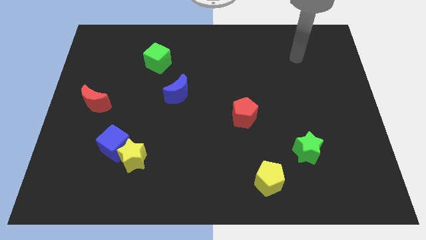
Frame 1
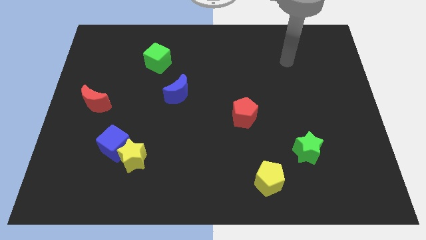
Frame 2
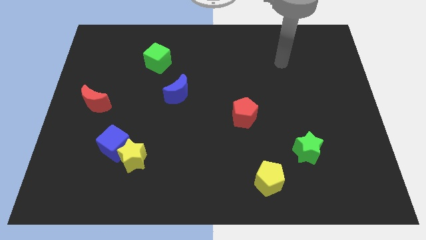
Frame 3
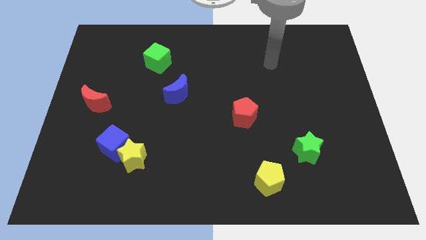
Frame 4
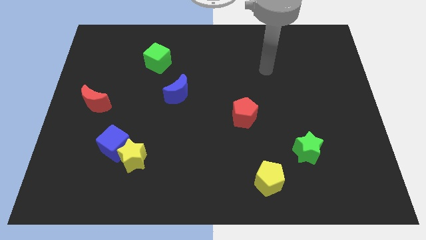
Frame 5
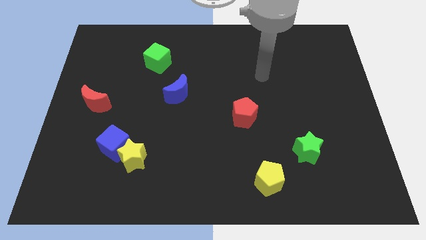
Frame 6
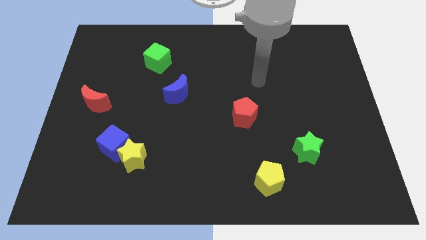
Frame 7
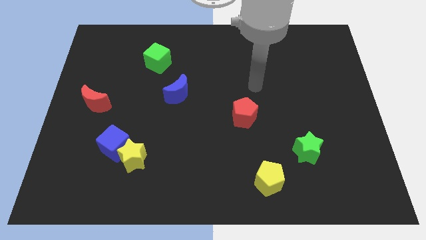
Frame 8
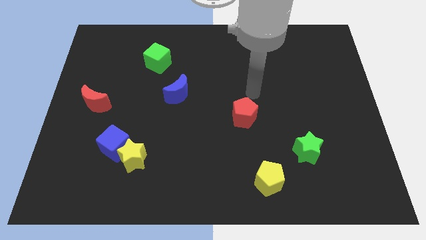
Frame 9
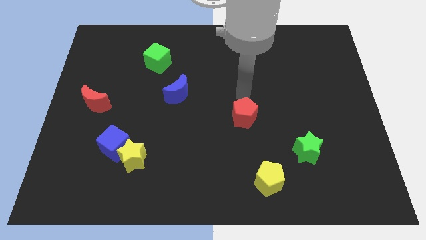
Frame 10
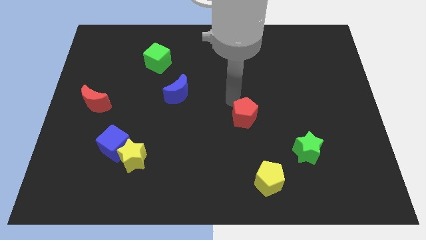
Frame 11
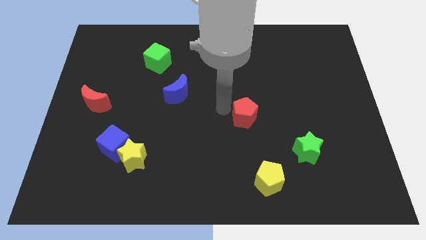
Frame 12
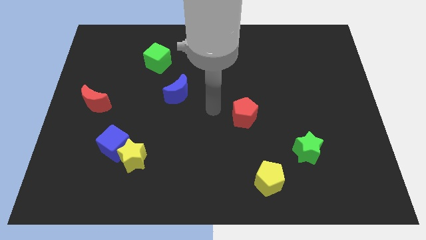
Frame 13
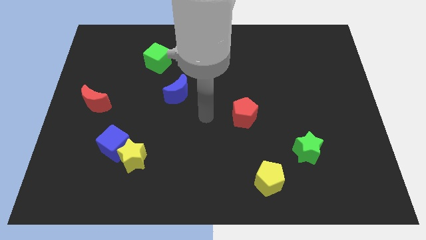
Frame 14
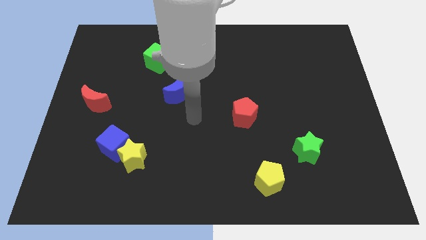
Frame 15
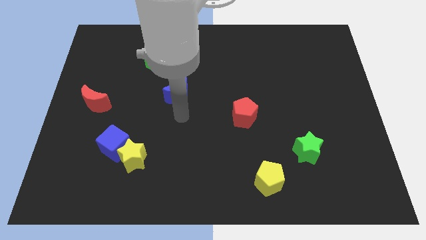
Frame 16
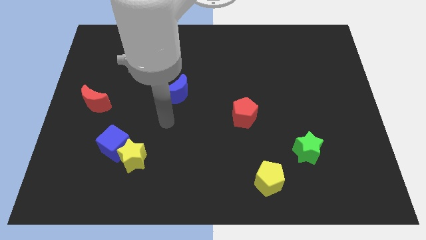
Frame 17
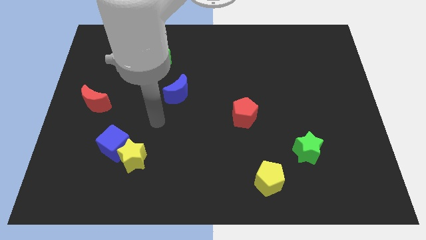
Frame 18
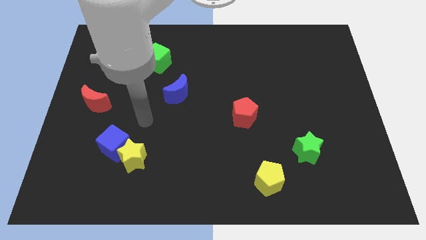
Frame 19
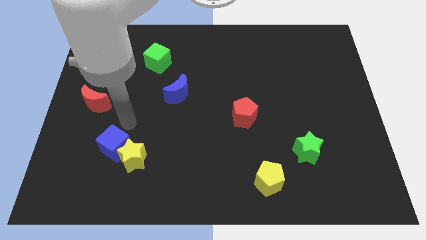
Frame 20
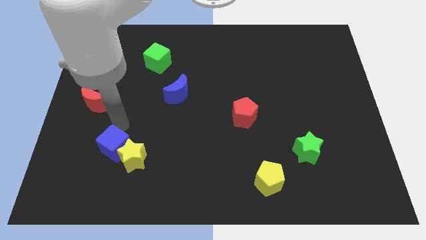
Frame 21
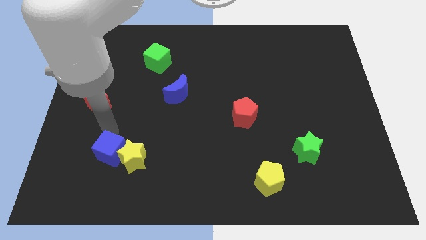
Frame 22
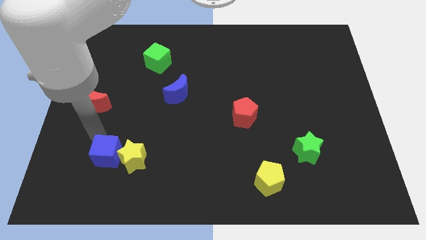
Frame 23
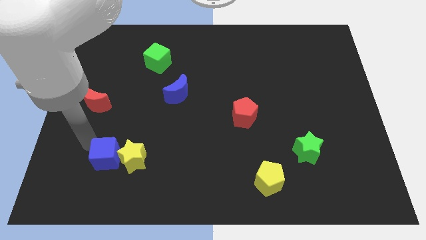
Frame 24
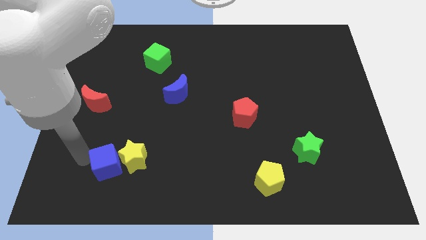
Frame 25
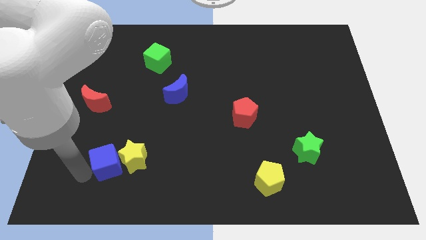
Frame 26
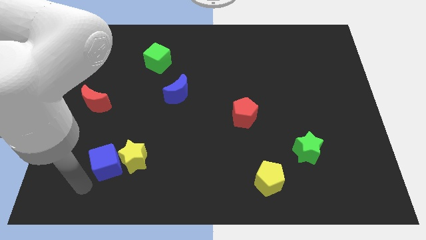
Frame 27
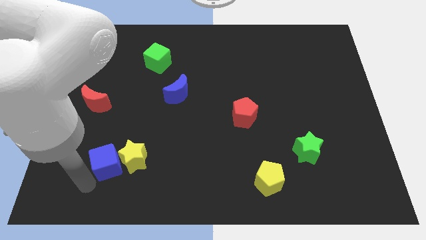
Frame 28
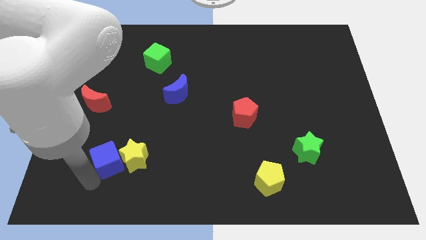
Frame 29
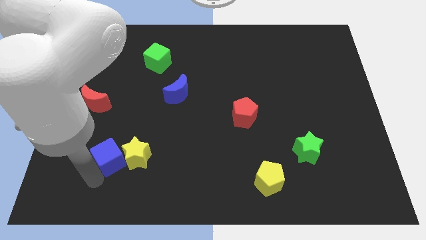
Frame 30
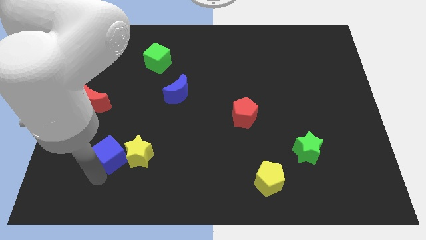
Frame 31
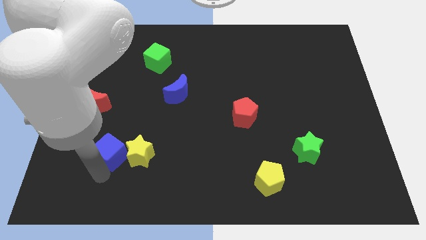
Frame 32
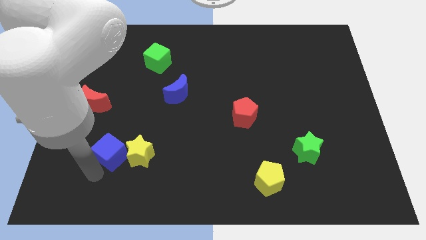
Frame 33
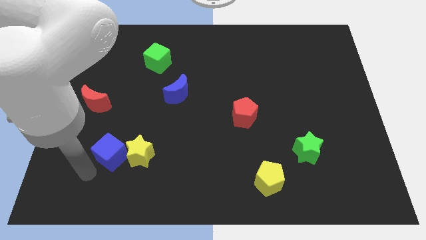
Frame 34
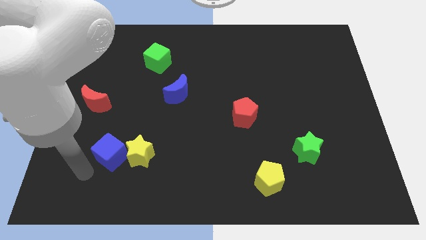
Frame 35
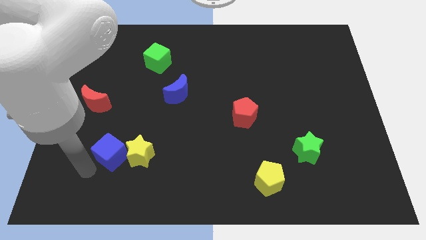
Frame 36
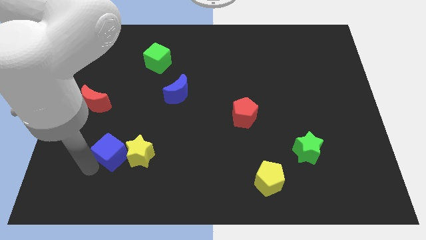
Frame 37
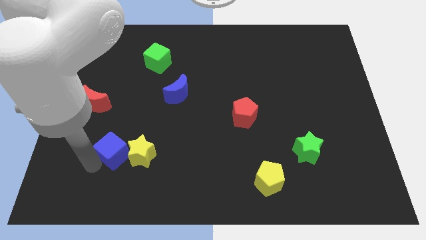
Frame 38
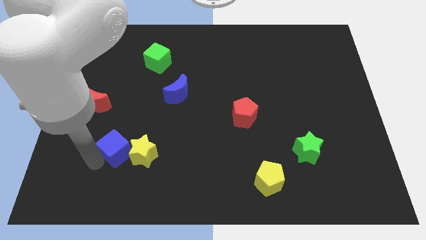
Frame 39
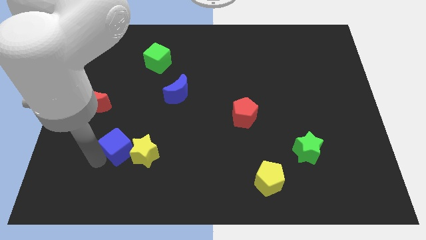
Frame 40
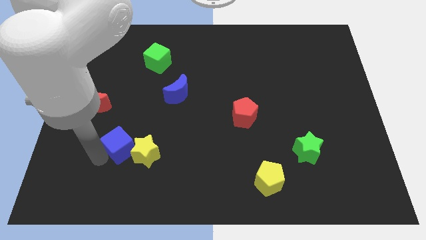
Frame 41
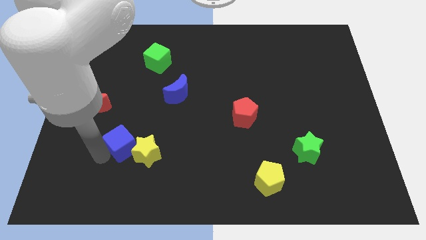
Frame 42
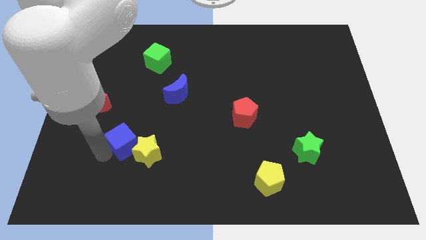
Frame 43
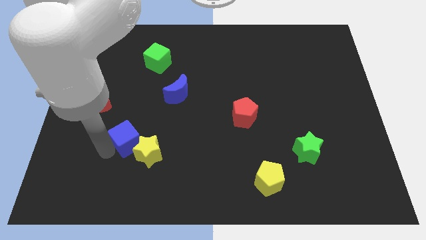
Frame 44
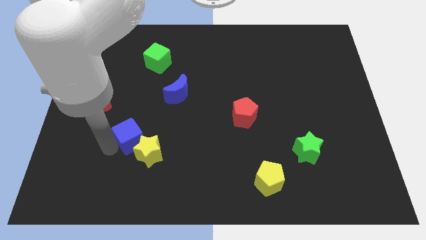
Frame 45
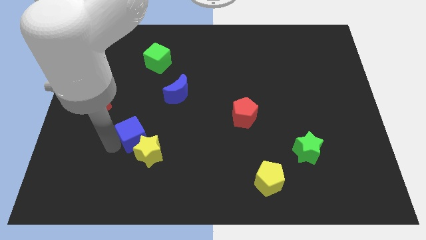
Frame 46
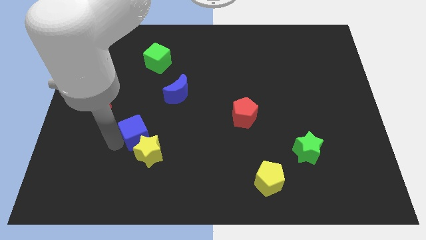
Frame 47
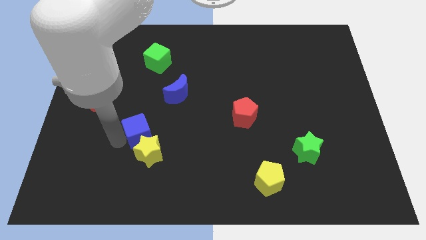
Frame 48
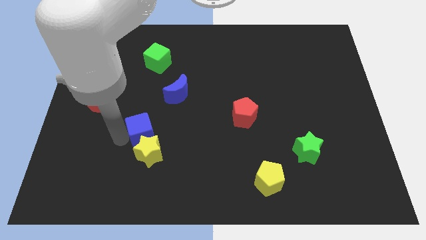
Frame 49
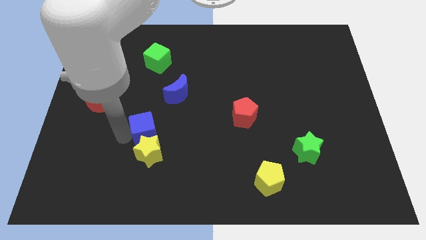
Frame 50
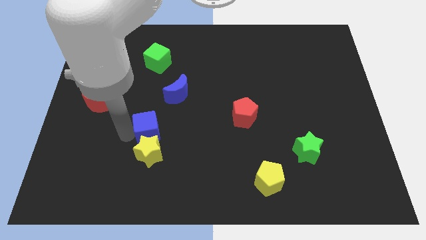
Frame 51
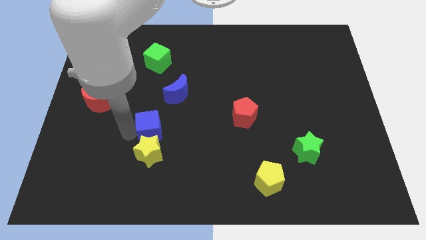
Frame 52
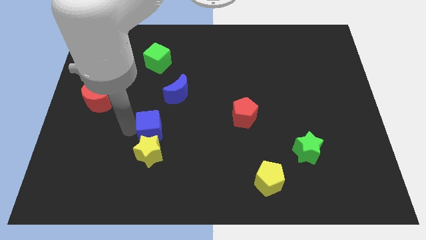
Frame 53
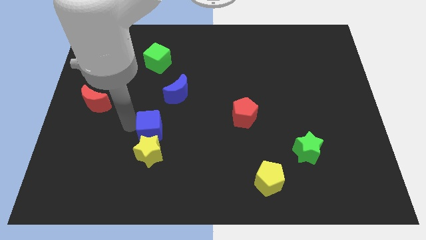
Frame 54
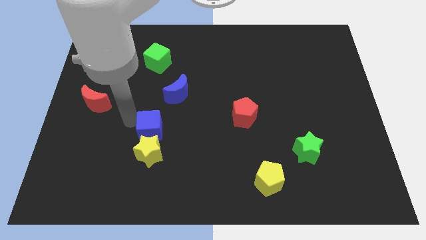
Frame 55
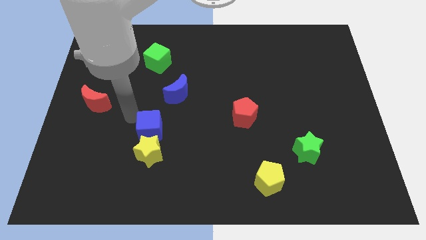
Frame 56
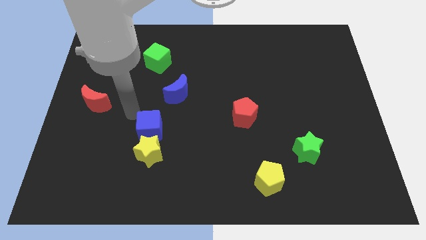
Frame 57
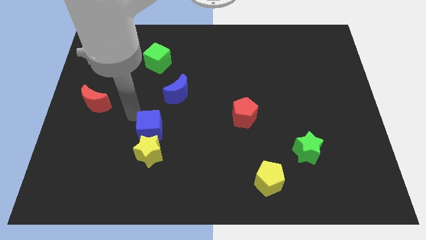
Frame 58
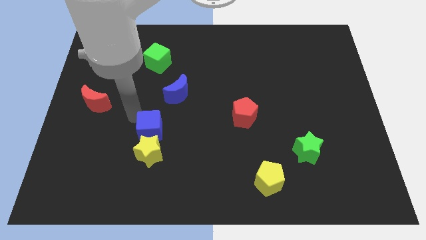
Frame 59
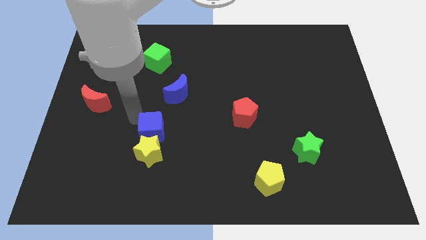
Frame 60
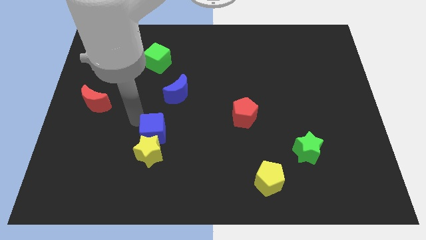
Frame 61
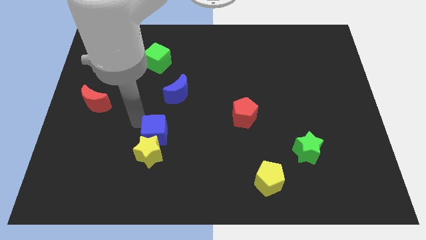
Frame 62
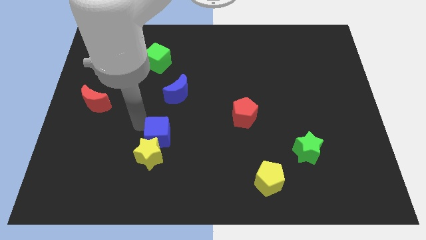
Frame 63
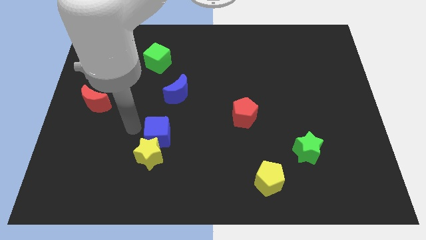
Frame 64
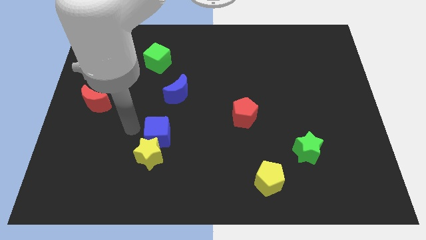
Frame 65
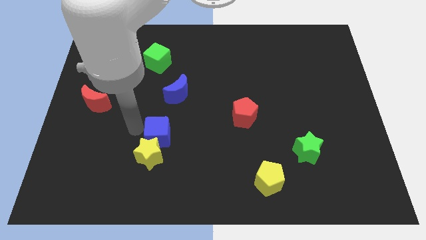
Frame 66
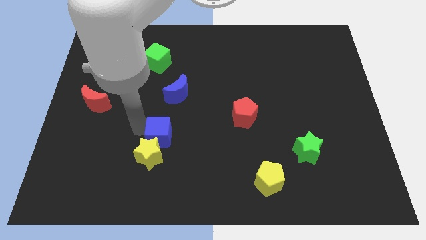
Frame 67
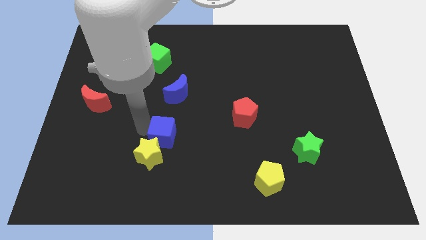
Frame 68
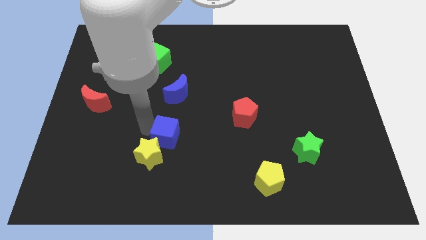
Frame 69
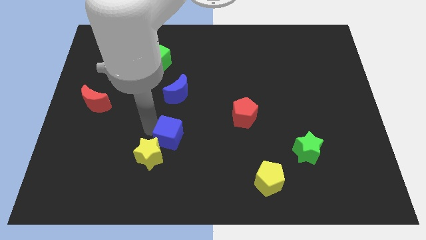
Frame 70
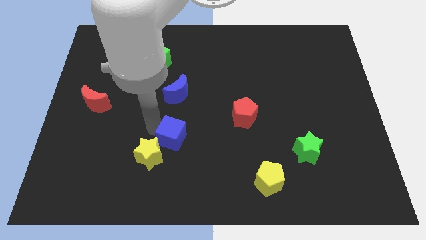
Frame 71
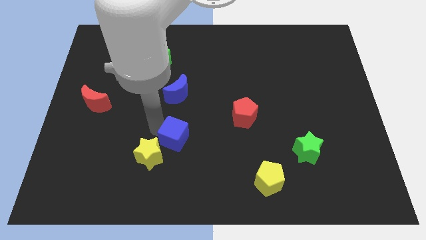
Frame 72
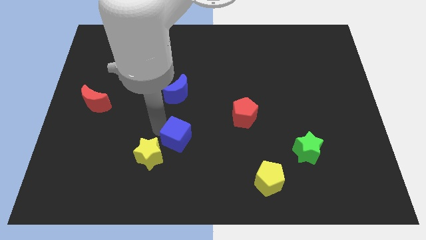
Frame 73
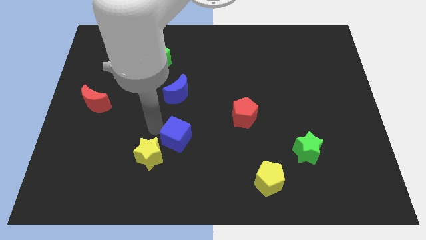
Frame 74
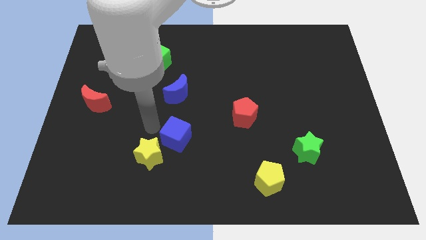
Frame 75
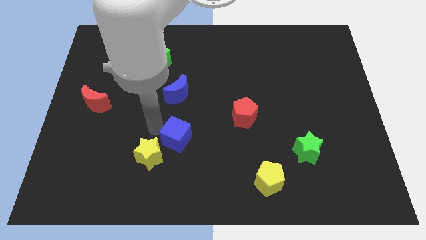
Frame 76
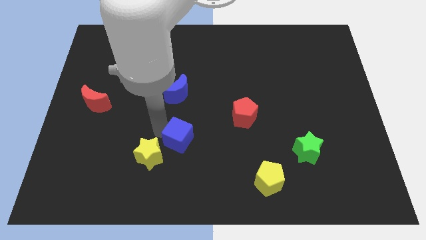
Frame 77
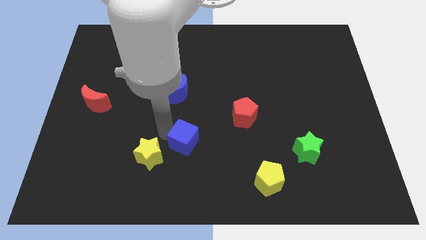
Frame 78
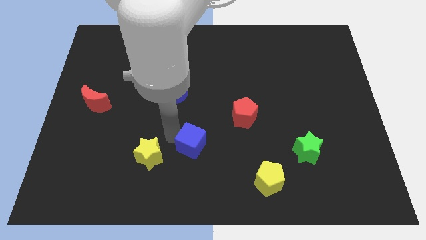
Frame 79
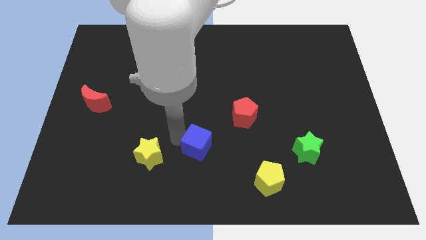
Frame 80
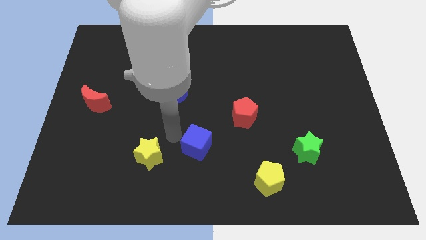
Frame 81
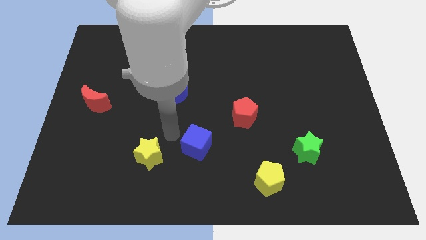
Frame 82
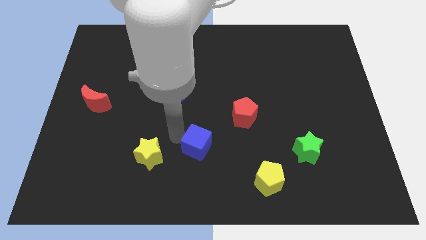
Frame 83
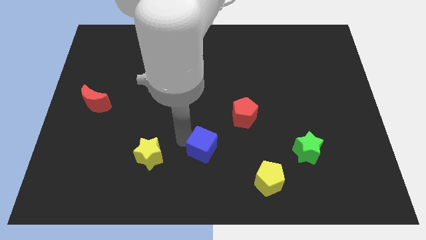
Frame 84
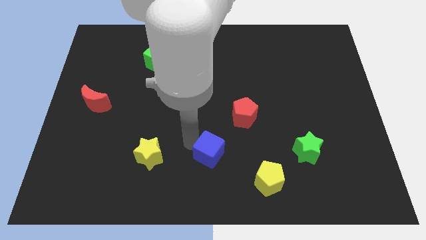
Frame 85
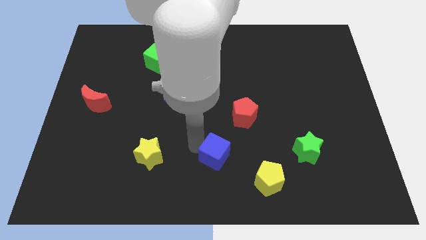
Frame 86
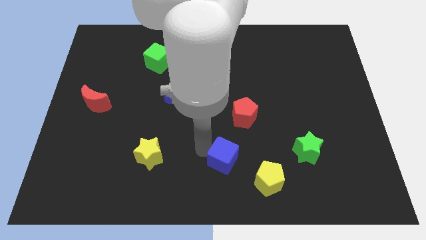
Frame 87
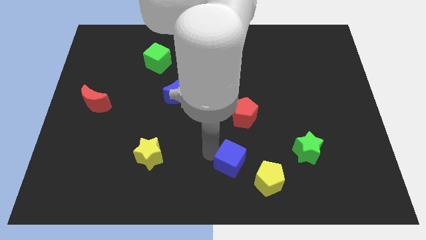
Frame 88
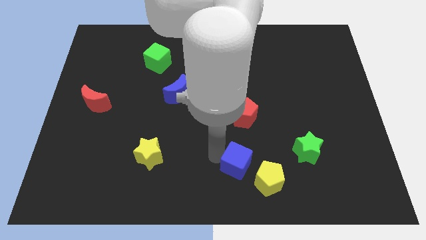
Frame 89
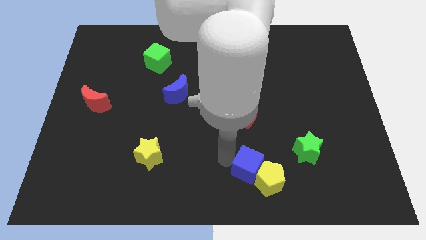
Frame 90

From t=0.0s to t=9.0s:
move the blue cube close to the yellow pentagon
